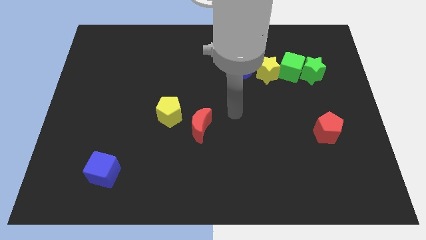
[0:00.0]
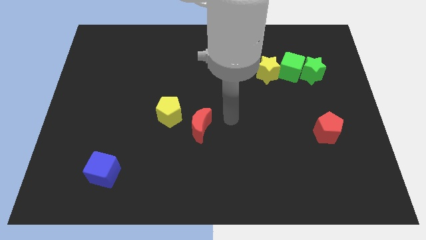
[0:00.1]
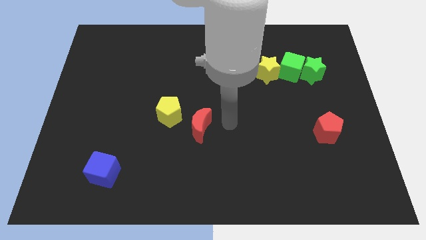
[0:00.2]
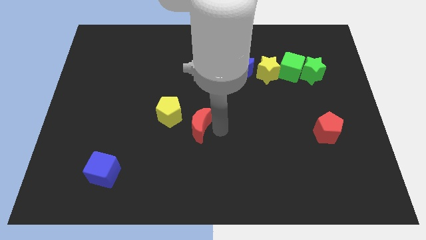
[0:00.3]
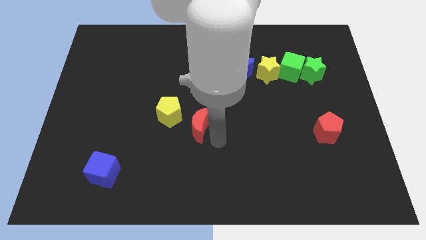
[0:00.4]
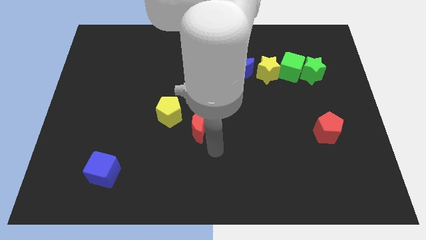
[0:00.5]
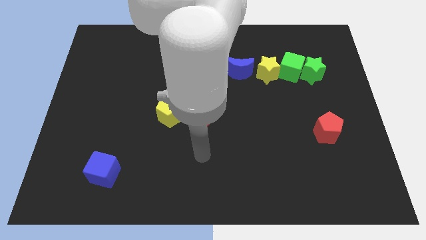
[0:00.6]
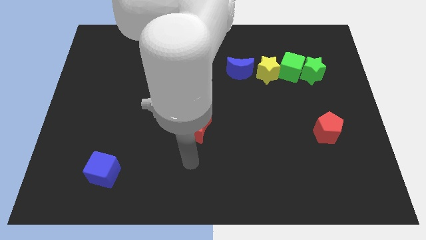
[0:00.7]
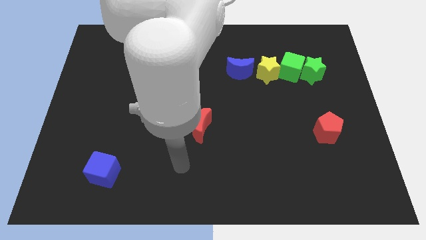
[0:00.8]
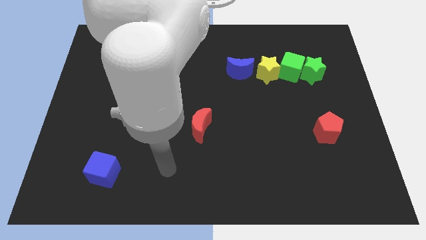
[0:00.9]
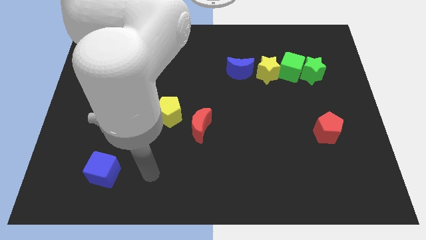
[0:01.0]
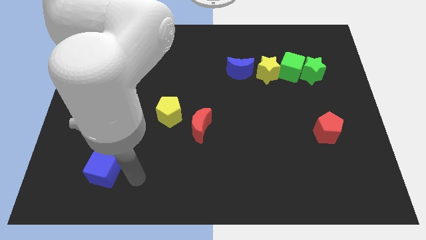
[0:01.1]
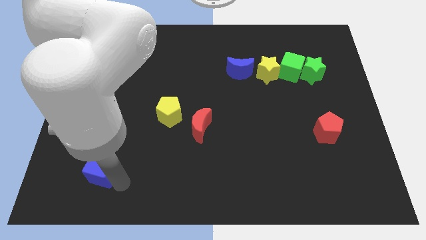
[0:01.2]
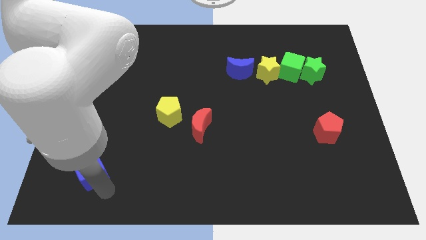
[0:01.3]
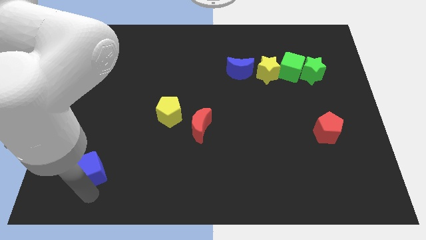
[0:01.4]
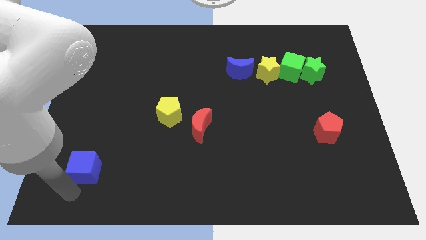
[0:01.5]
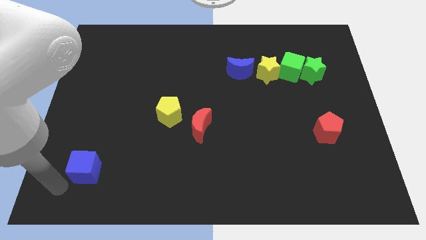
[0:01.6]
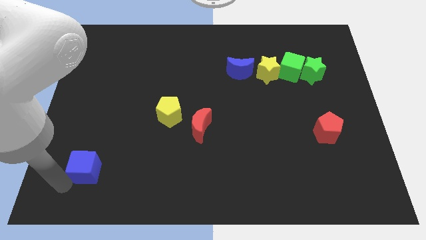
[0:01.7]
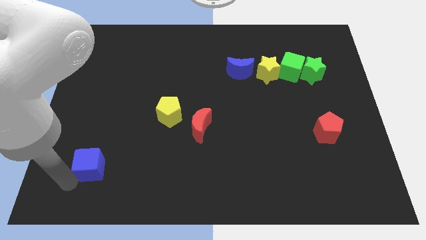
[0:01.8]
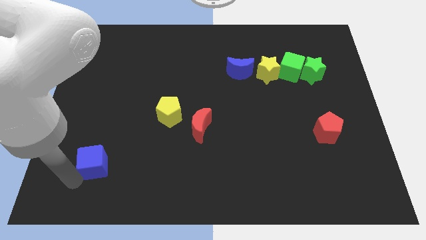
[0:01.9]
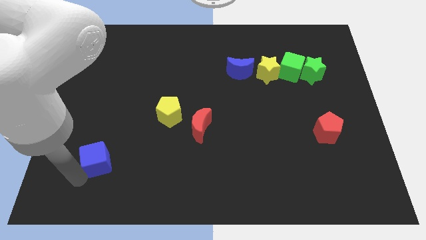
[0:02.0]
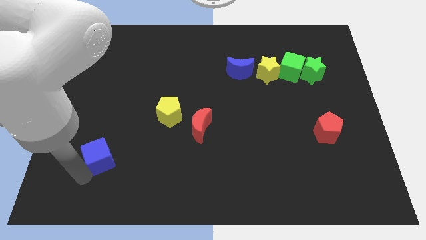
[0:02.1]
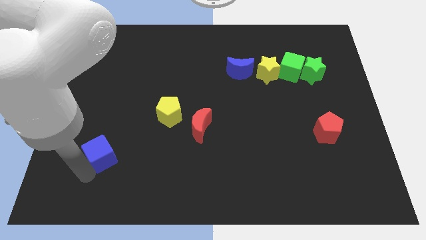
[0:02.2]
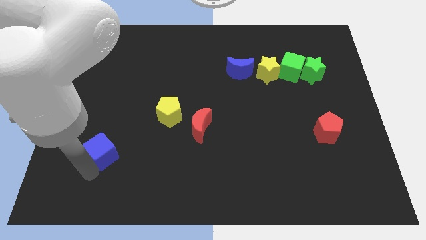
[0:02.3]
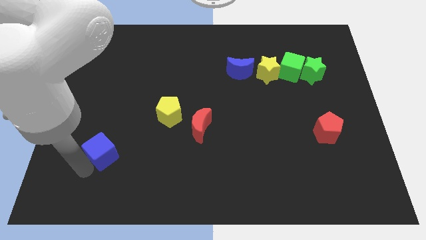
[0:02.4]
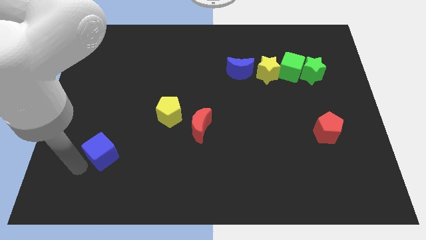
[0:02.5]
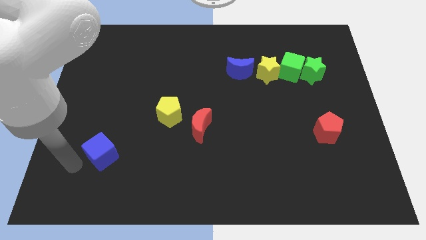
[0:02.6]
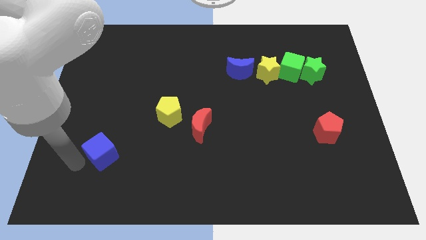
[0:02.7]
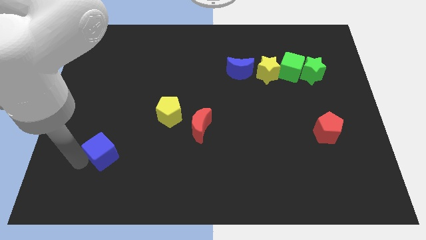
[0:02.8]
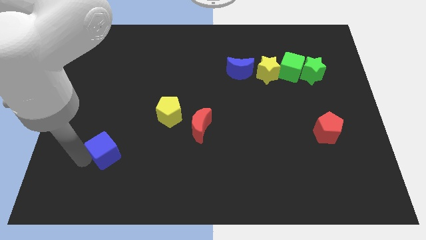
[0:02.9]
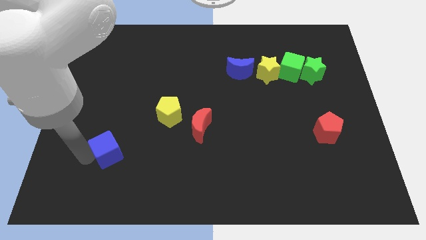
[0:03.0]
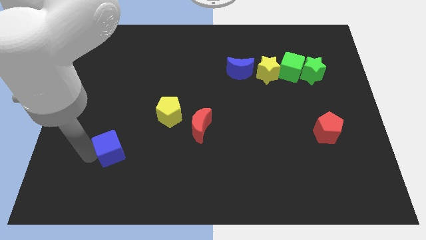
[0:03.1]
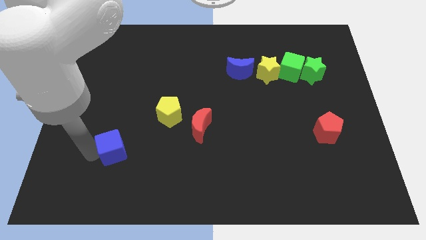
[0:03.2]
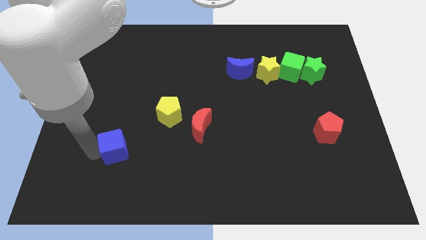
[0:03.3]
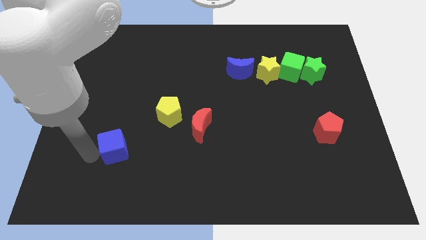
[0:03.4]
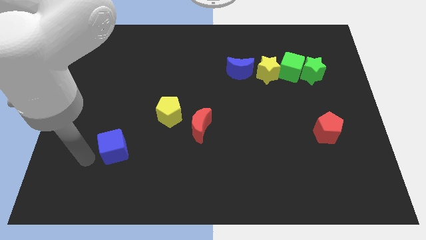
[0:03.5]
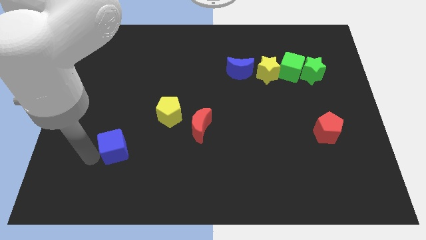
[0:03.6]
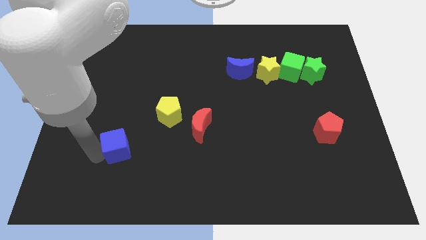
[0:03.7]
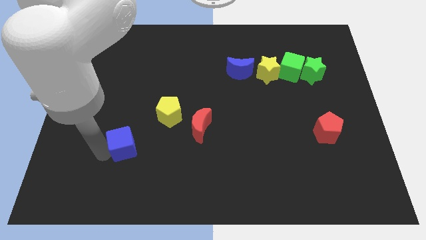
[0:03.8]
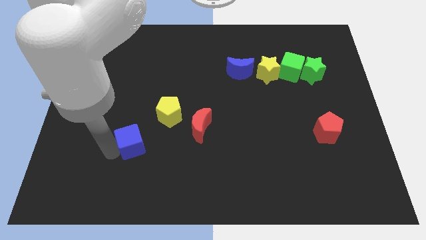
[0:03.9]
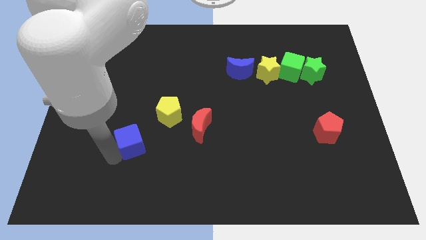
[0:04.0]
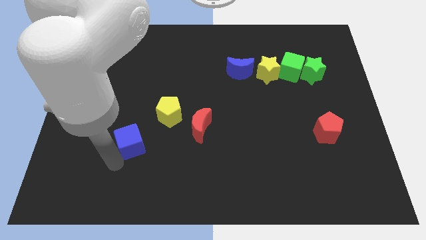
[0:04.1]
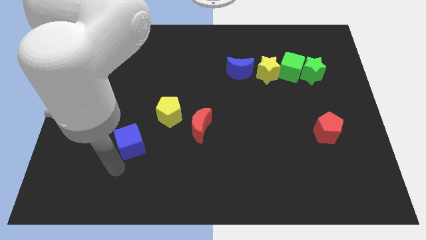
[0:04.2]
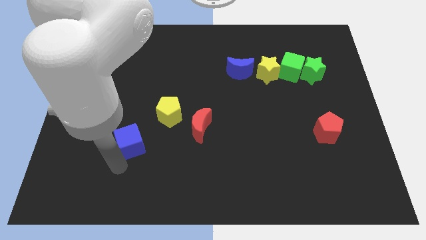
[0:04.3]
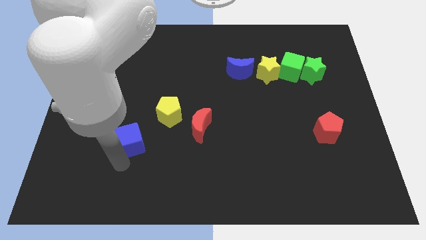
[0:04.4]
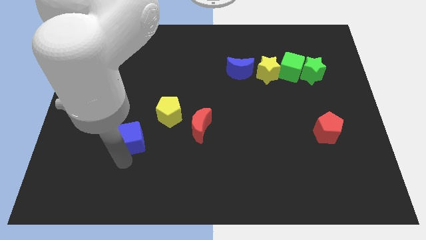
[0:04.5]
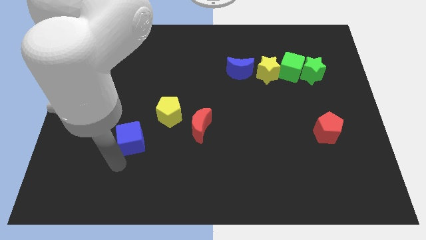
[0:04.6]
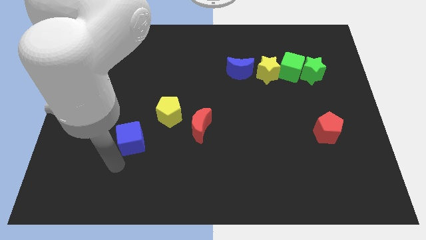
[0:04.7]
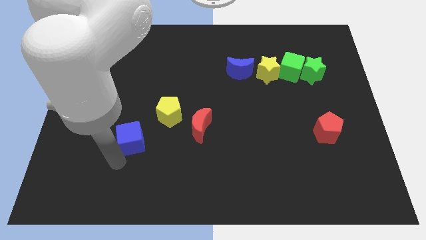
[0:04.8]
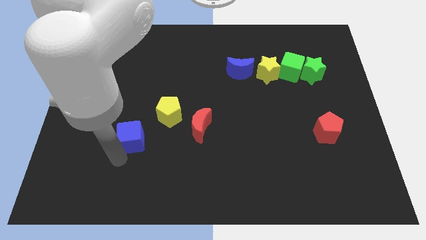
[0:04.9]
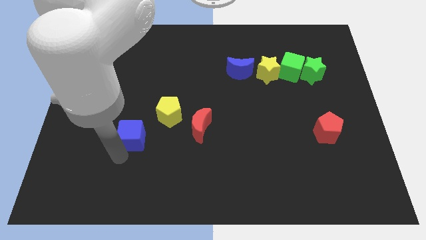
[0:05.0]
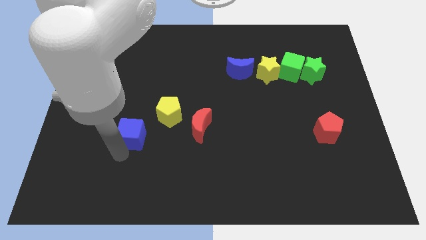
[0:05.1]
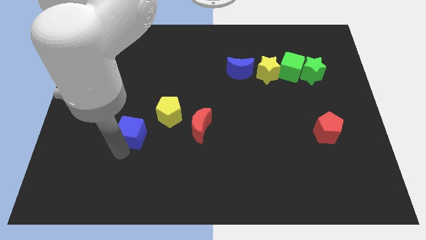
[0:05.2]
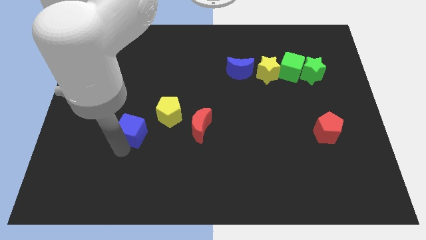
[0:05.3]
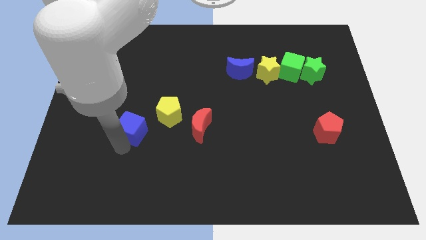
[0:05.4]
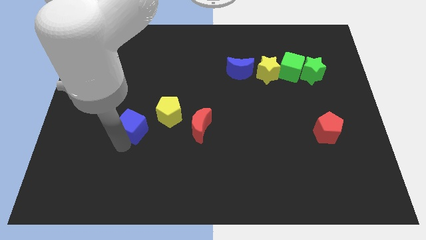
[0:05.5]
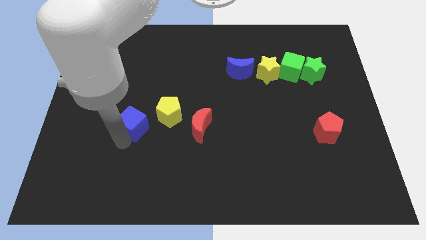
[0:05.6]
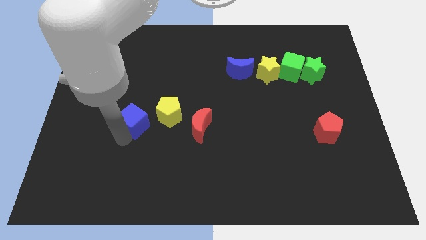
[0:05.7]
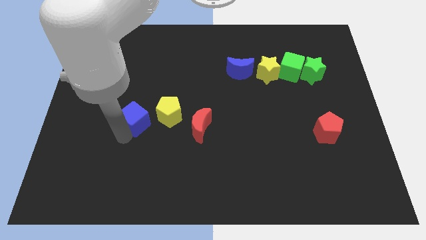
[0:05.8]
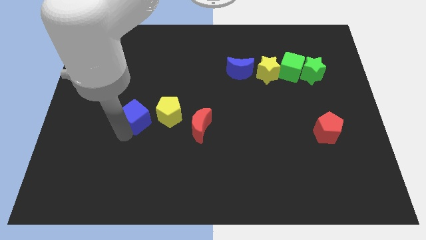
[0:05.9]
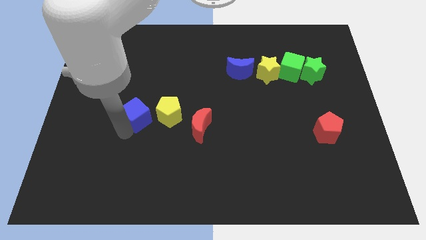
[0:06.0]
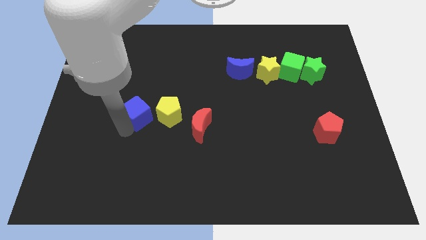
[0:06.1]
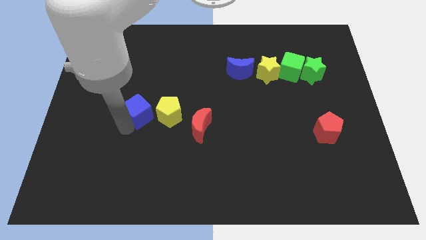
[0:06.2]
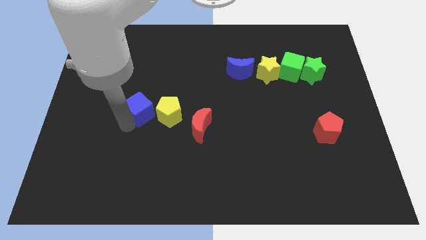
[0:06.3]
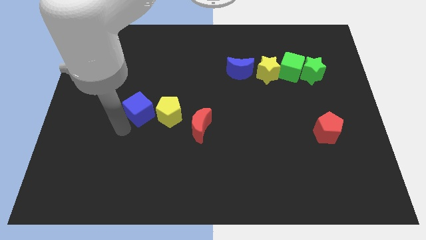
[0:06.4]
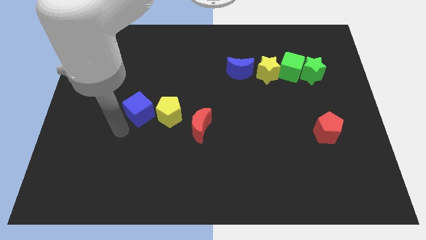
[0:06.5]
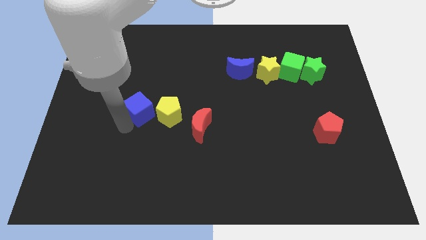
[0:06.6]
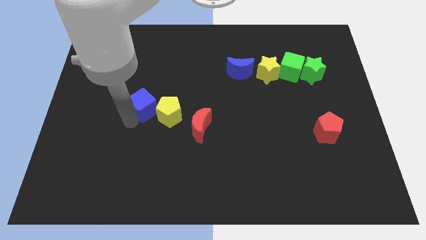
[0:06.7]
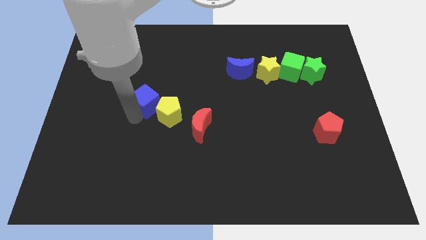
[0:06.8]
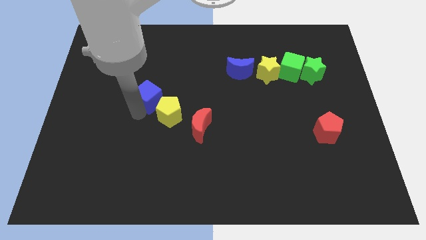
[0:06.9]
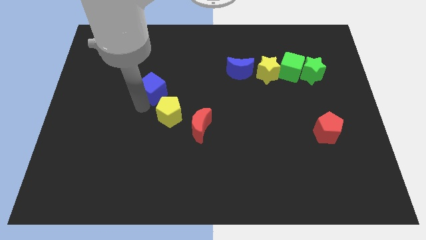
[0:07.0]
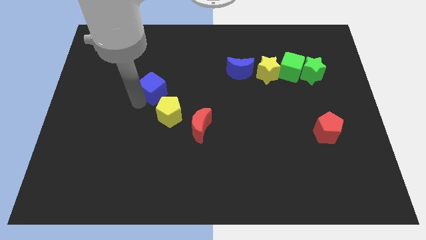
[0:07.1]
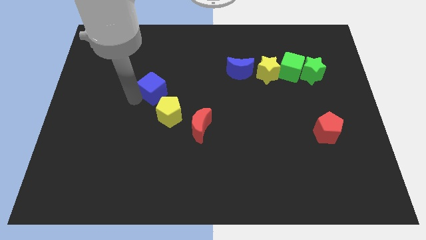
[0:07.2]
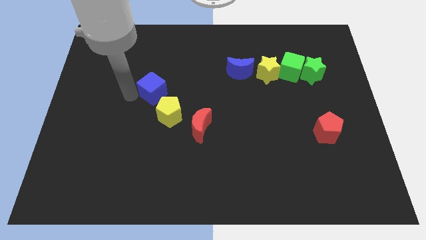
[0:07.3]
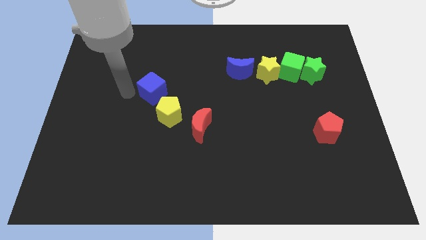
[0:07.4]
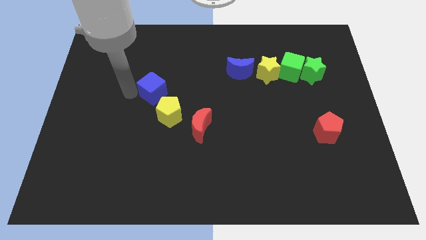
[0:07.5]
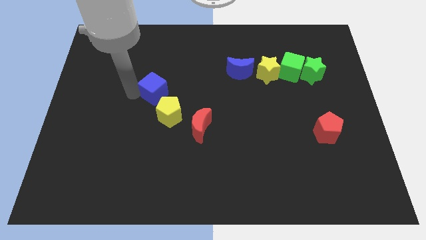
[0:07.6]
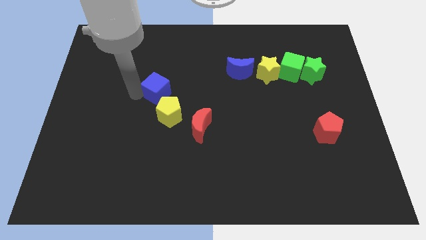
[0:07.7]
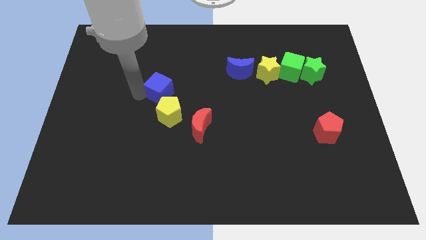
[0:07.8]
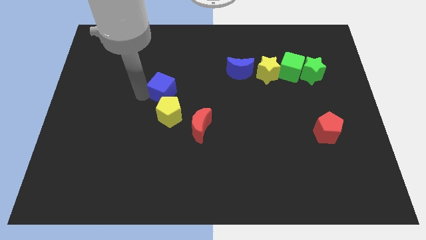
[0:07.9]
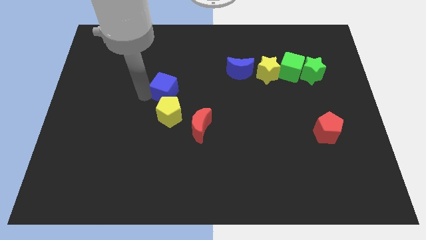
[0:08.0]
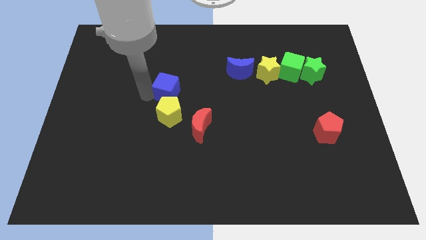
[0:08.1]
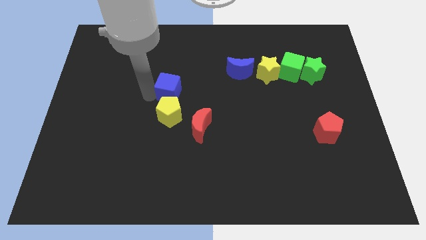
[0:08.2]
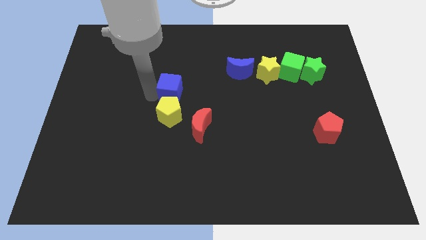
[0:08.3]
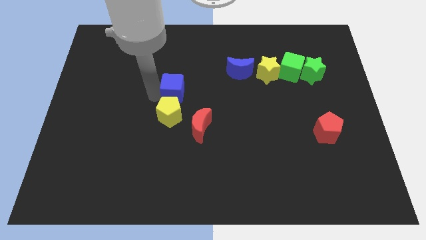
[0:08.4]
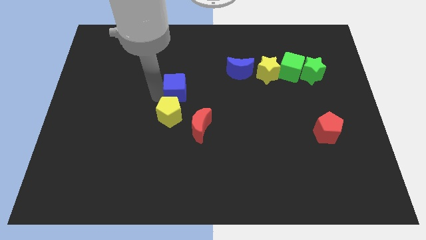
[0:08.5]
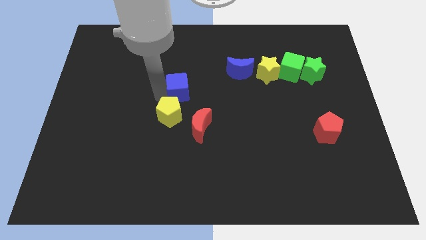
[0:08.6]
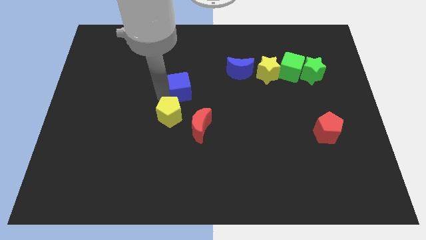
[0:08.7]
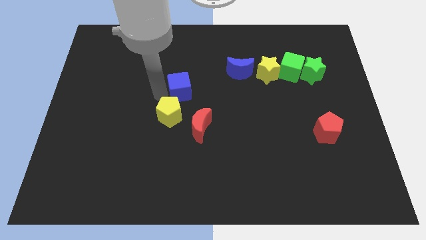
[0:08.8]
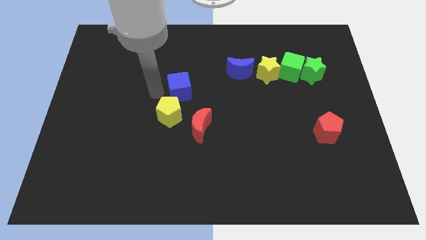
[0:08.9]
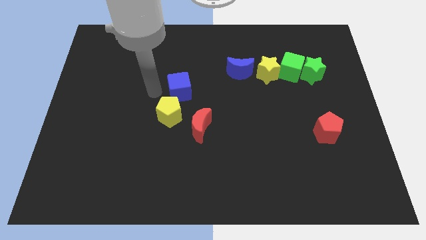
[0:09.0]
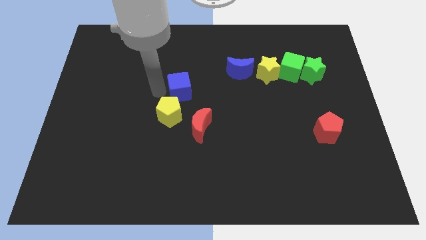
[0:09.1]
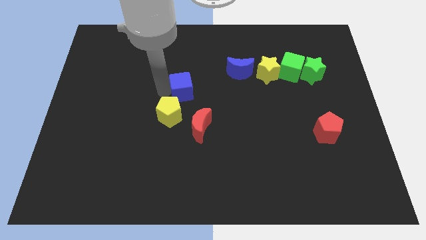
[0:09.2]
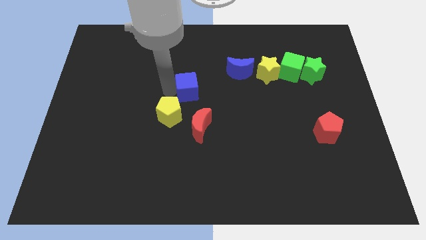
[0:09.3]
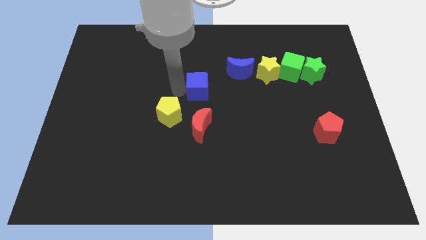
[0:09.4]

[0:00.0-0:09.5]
push the blue cube to the bottom left of the blue moon
